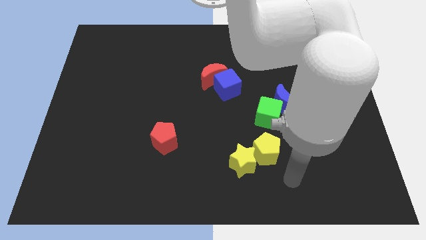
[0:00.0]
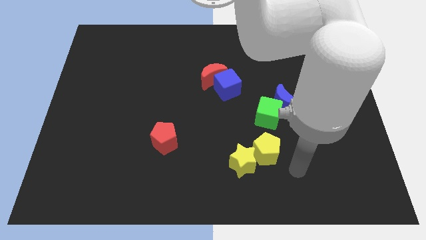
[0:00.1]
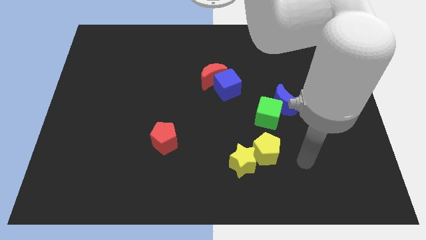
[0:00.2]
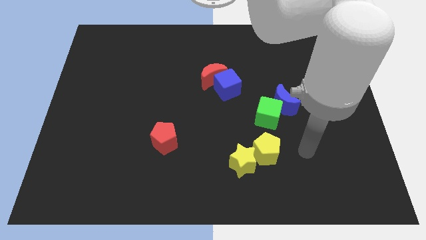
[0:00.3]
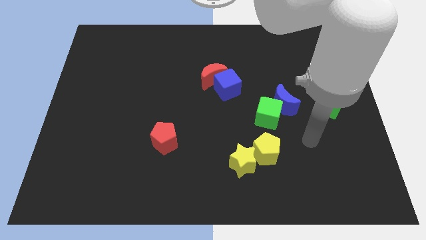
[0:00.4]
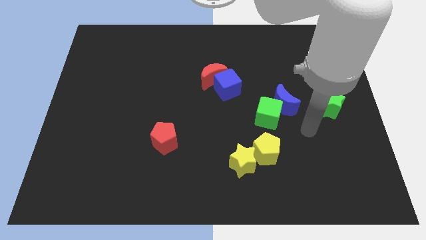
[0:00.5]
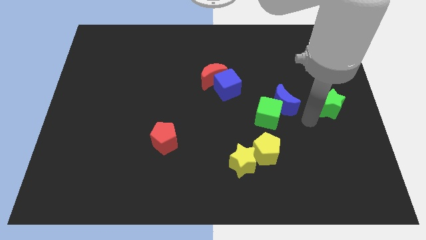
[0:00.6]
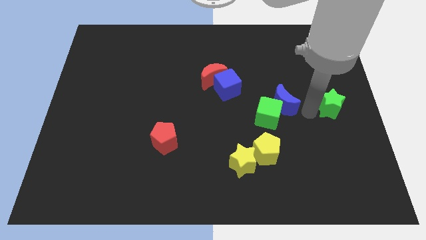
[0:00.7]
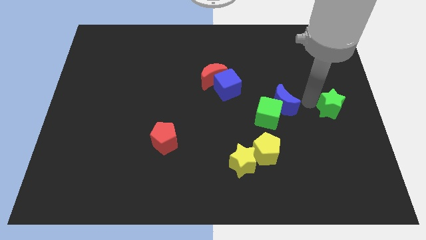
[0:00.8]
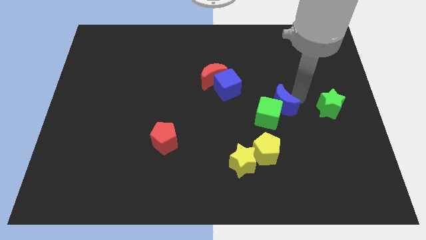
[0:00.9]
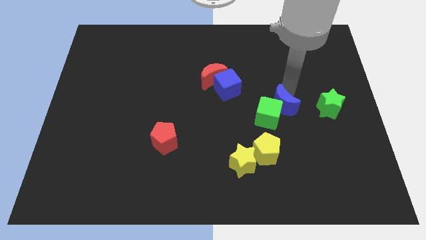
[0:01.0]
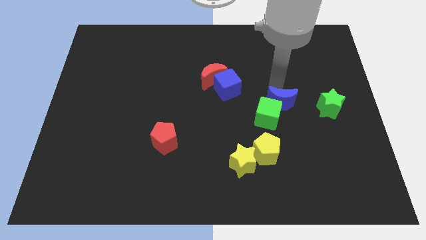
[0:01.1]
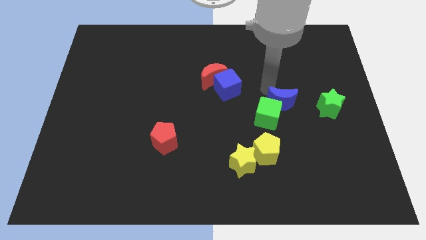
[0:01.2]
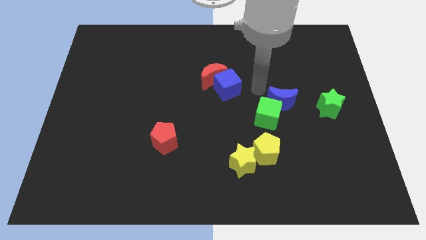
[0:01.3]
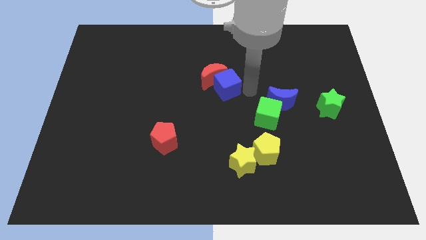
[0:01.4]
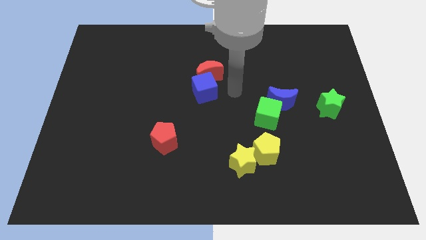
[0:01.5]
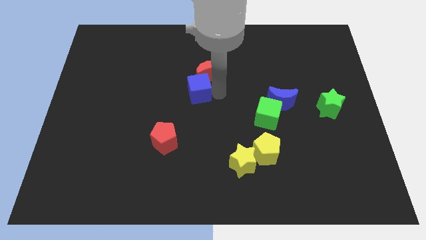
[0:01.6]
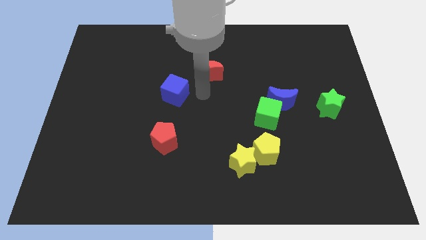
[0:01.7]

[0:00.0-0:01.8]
move the red moon away from the blue cube

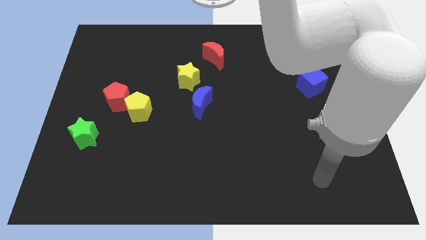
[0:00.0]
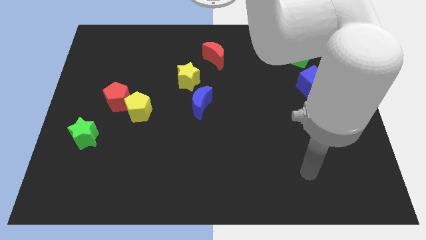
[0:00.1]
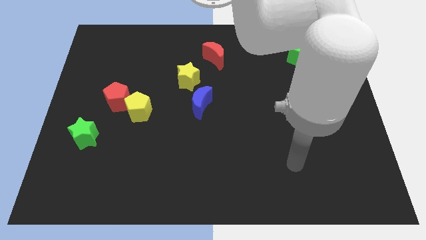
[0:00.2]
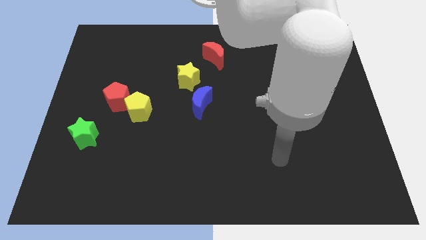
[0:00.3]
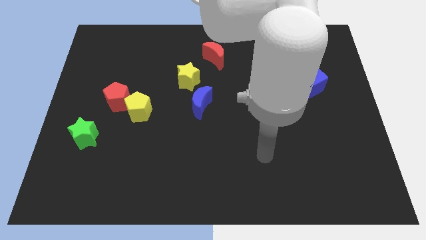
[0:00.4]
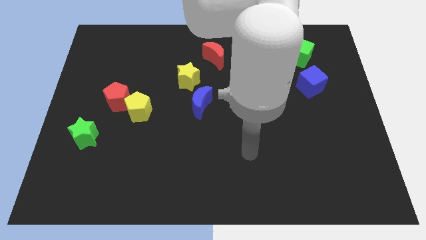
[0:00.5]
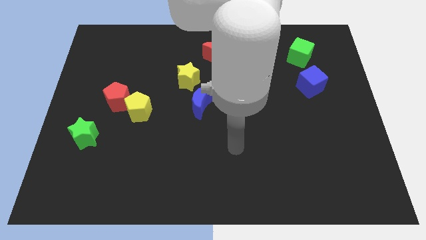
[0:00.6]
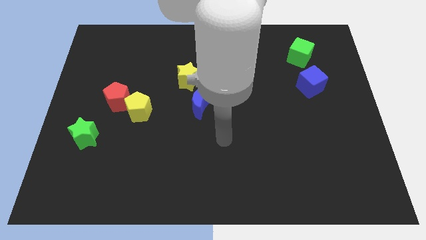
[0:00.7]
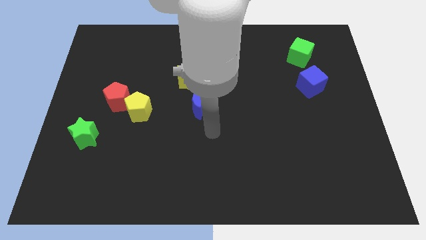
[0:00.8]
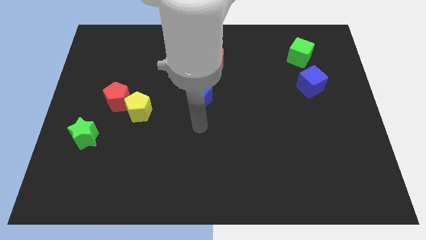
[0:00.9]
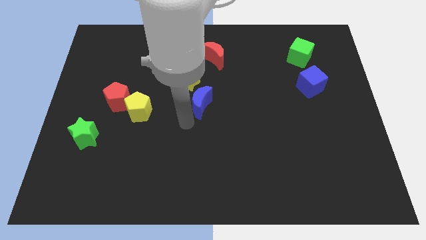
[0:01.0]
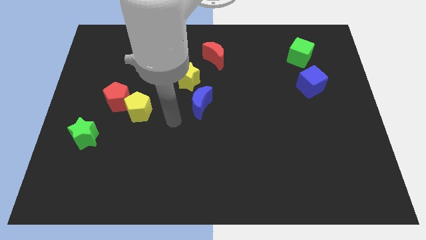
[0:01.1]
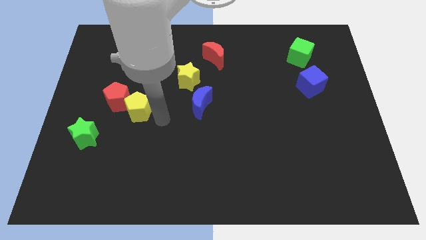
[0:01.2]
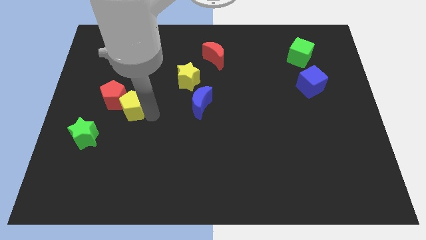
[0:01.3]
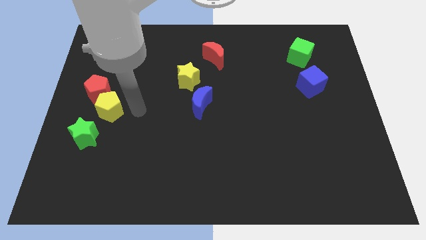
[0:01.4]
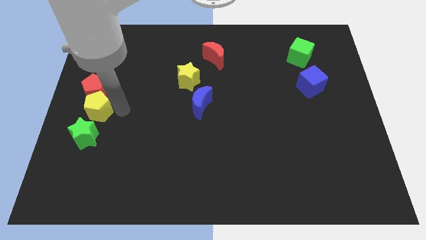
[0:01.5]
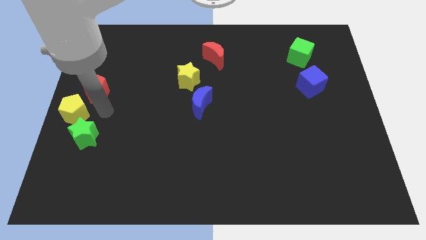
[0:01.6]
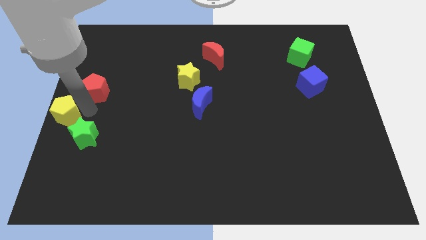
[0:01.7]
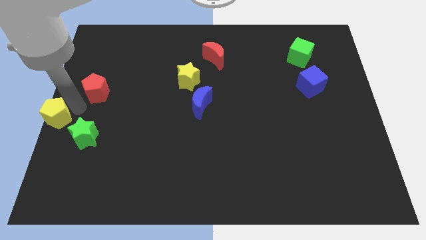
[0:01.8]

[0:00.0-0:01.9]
move the red pentagon away from the yellow pentagon

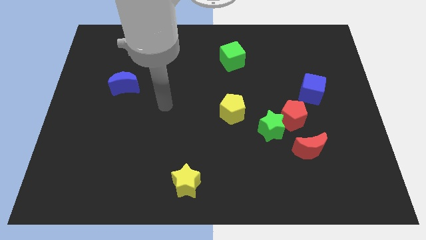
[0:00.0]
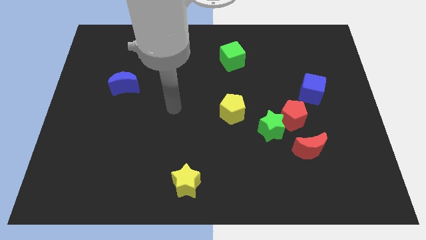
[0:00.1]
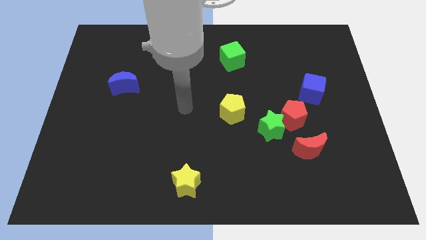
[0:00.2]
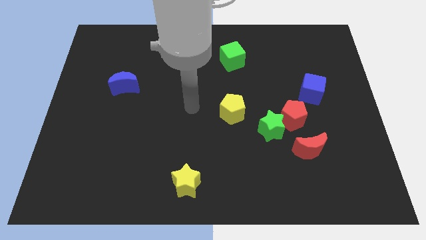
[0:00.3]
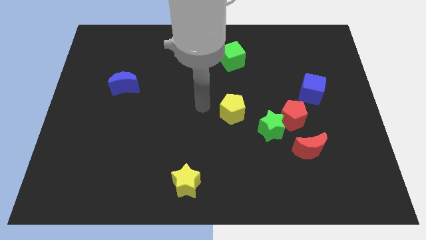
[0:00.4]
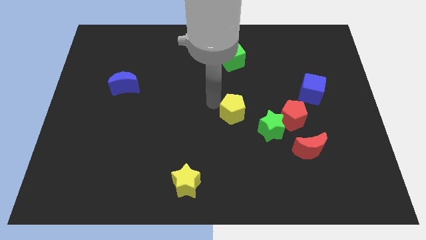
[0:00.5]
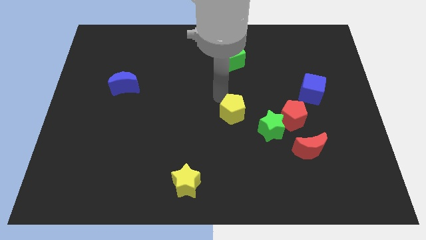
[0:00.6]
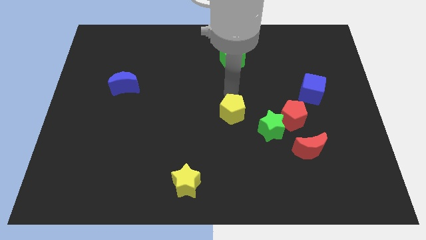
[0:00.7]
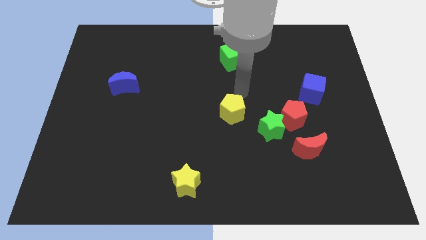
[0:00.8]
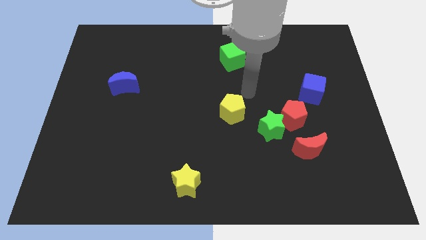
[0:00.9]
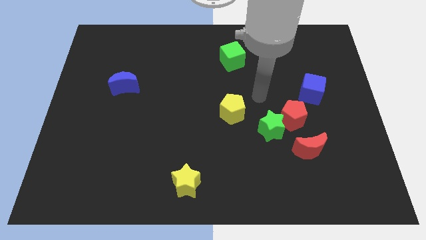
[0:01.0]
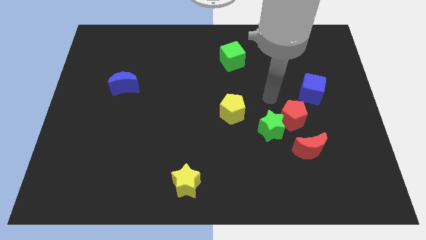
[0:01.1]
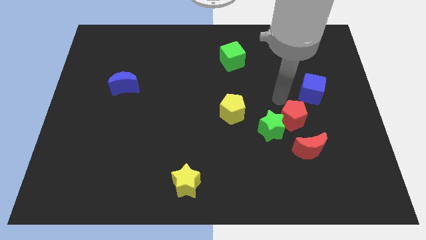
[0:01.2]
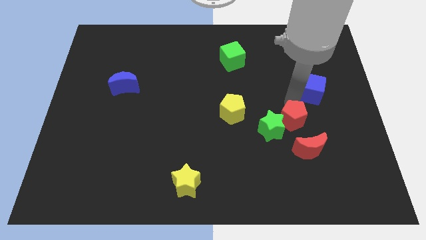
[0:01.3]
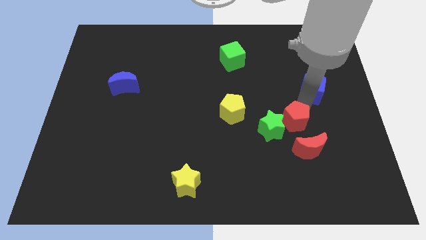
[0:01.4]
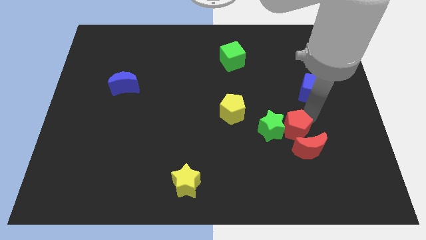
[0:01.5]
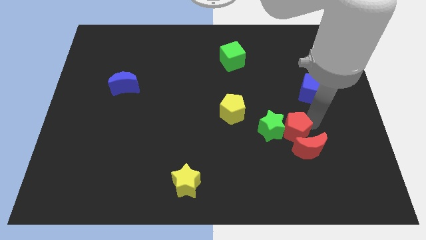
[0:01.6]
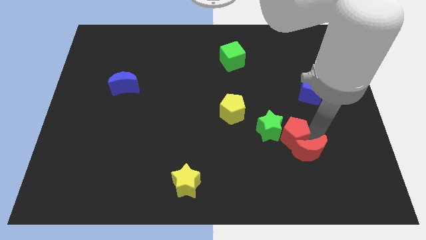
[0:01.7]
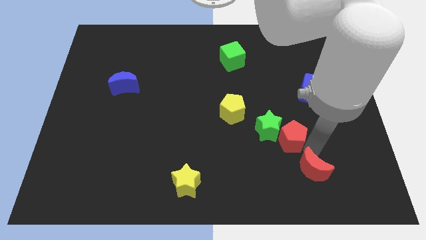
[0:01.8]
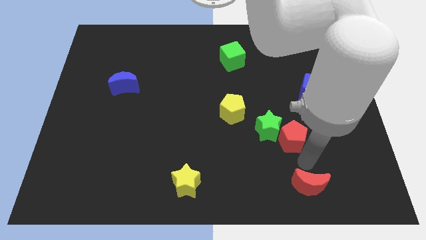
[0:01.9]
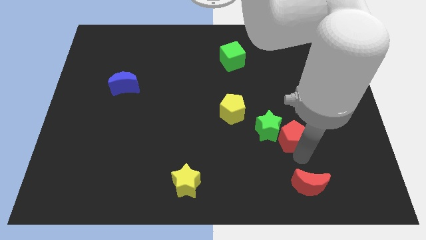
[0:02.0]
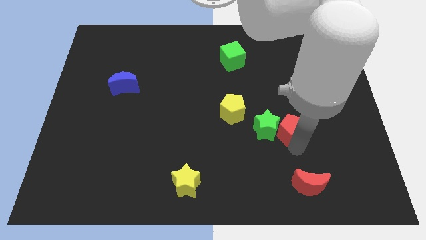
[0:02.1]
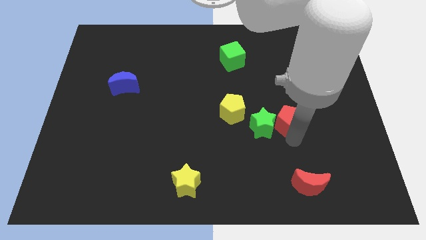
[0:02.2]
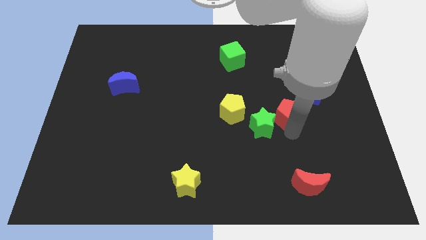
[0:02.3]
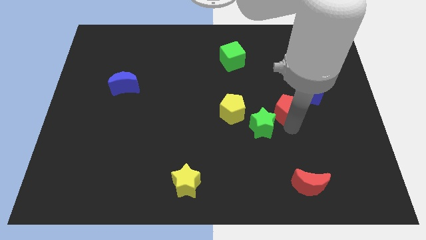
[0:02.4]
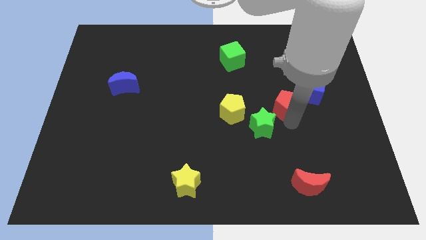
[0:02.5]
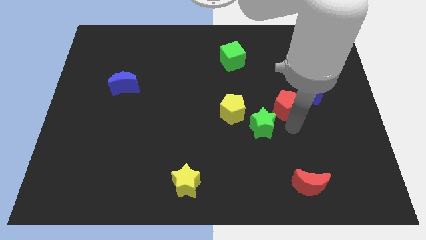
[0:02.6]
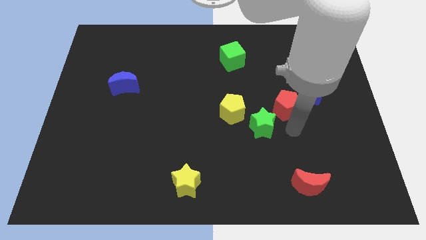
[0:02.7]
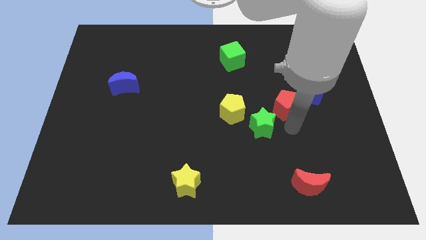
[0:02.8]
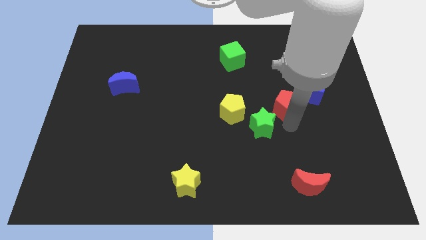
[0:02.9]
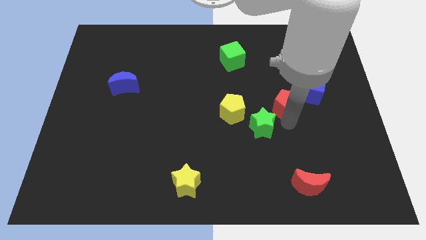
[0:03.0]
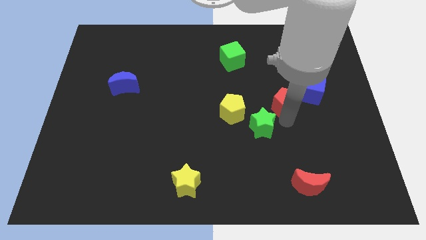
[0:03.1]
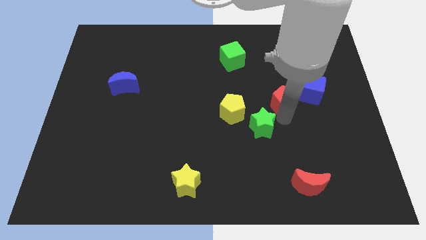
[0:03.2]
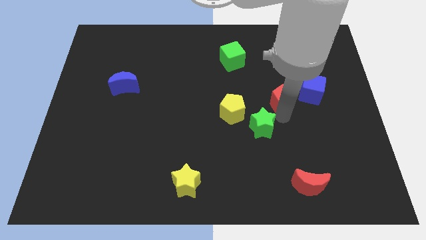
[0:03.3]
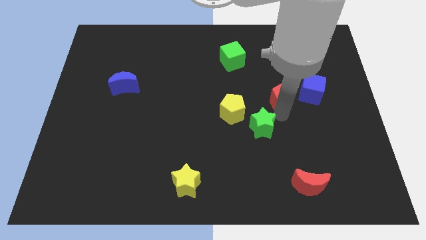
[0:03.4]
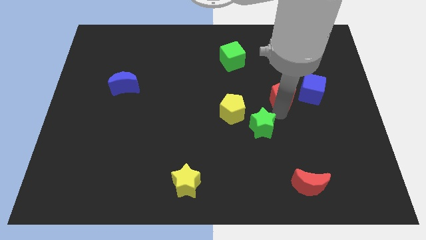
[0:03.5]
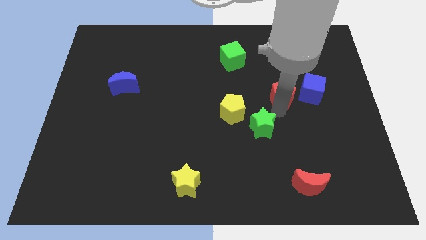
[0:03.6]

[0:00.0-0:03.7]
move the red pentagon away from the green star, red moon, and blue cube

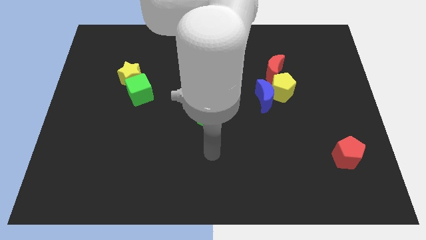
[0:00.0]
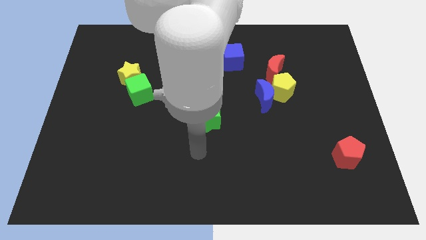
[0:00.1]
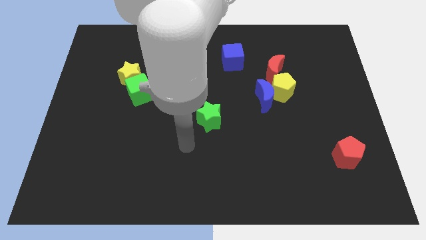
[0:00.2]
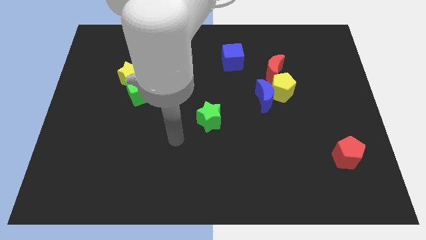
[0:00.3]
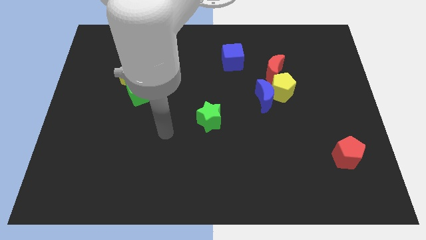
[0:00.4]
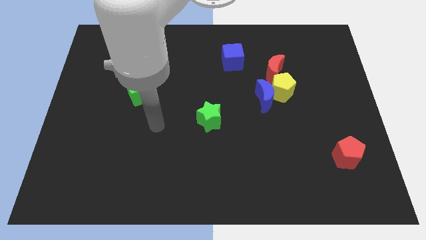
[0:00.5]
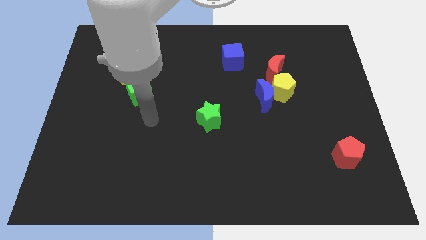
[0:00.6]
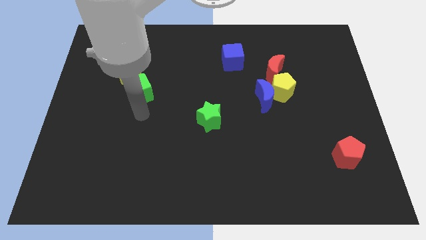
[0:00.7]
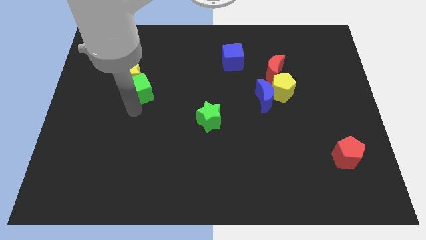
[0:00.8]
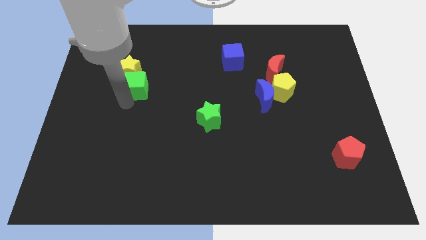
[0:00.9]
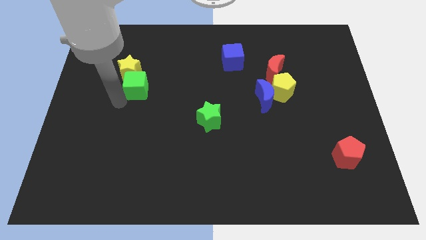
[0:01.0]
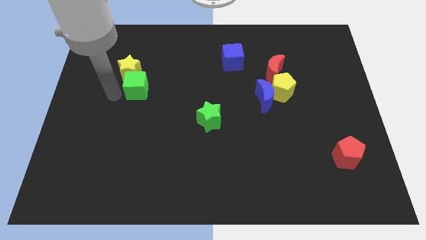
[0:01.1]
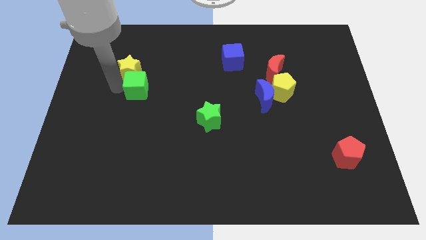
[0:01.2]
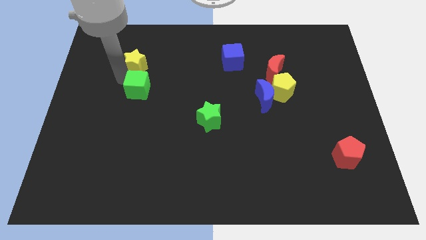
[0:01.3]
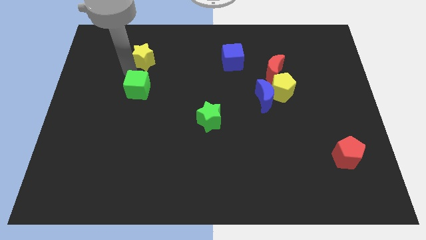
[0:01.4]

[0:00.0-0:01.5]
move the green cube away from the yellow star

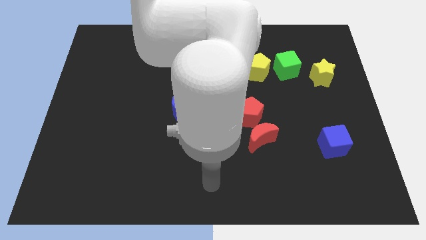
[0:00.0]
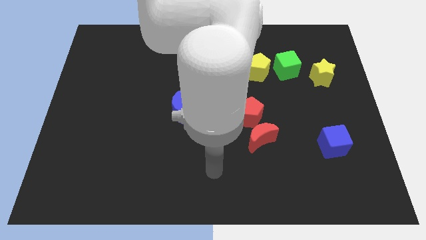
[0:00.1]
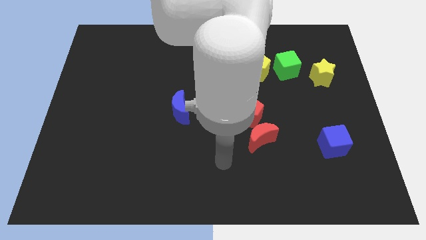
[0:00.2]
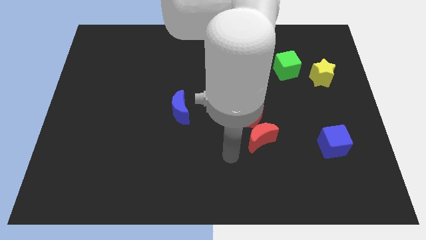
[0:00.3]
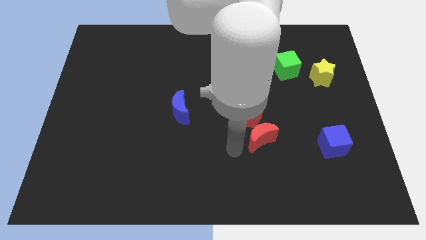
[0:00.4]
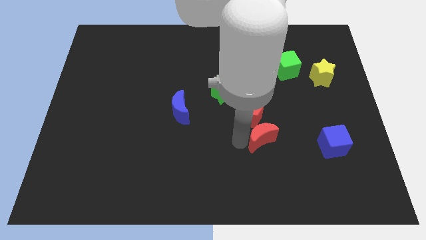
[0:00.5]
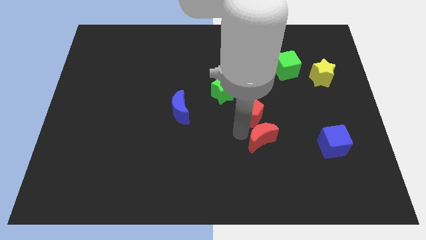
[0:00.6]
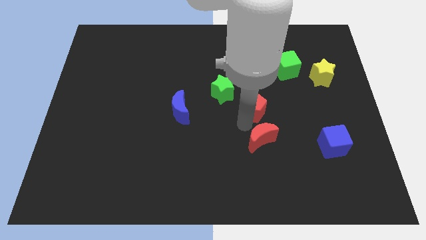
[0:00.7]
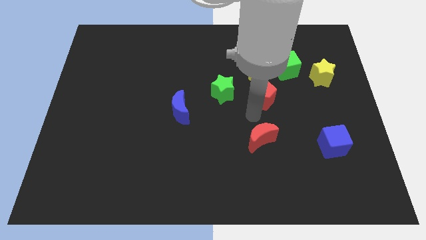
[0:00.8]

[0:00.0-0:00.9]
separate the red moon from the red pentagon
